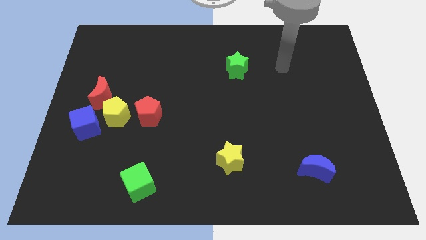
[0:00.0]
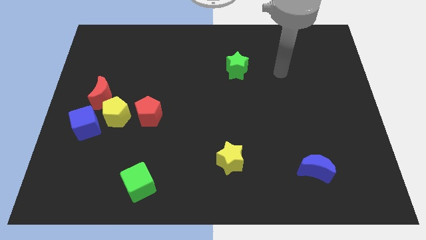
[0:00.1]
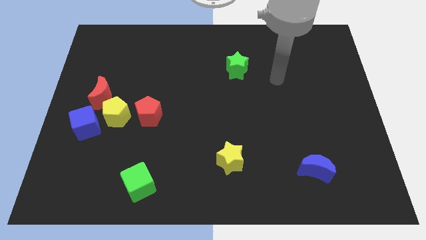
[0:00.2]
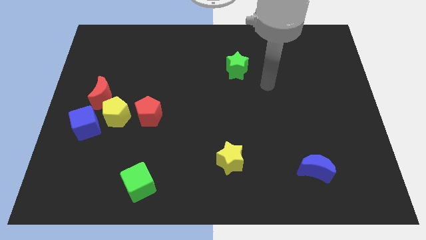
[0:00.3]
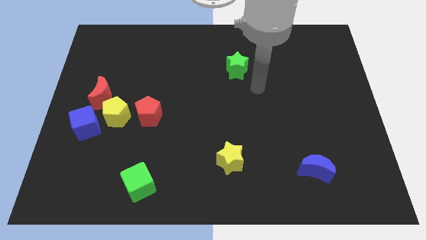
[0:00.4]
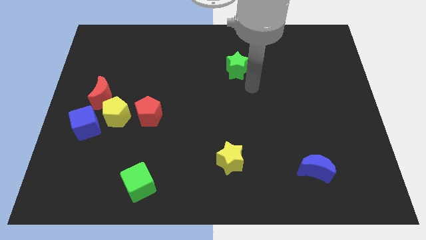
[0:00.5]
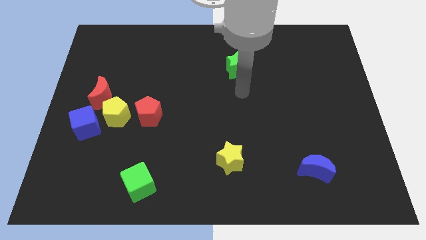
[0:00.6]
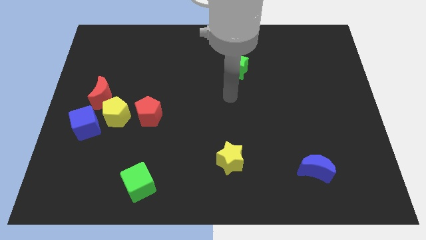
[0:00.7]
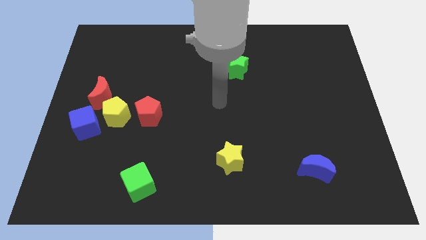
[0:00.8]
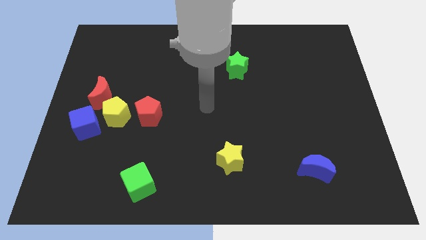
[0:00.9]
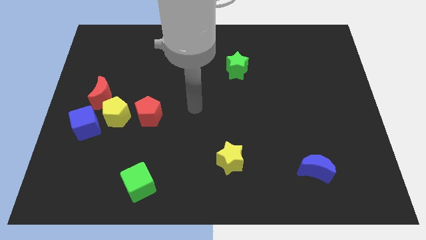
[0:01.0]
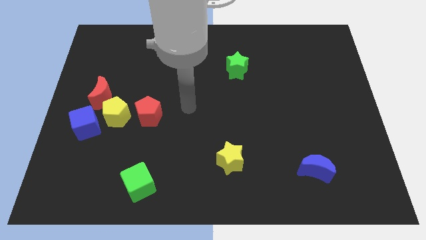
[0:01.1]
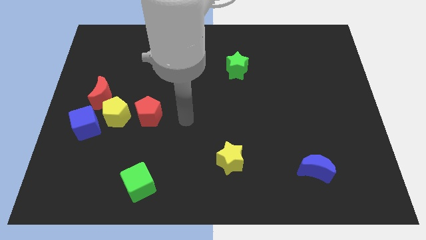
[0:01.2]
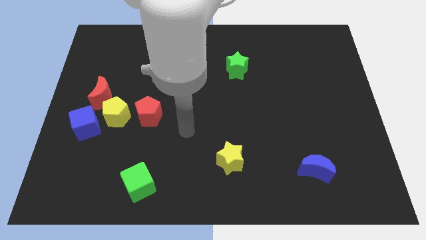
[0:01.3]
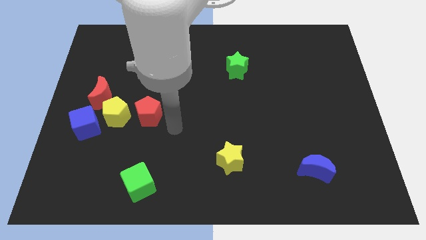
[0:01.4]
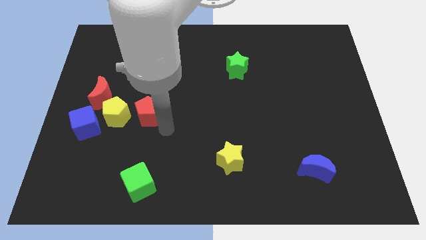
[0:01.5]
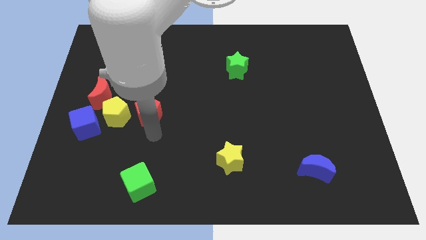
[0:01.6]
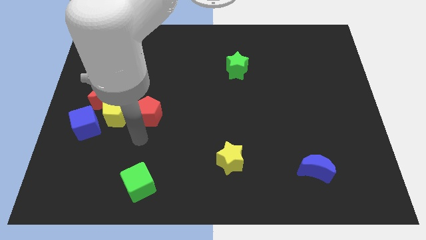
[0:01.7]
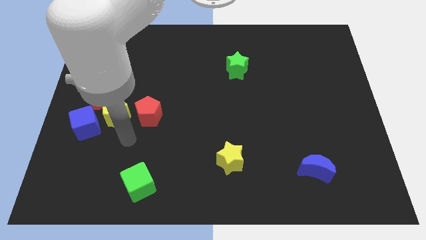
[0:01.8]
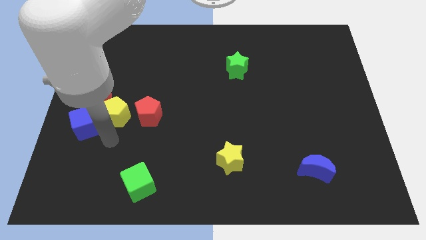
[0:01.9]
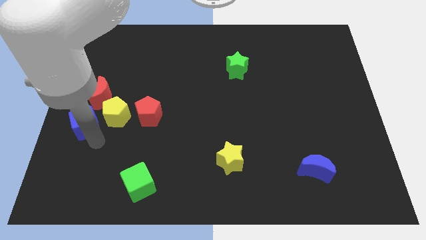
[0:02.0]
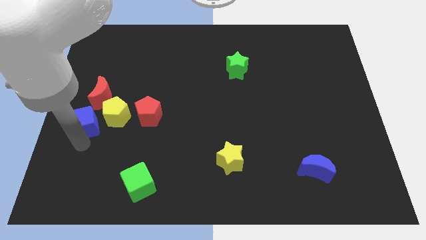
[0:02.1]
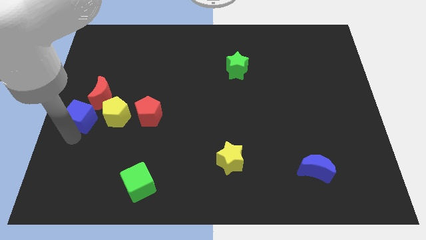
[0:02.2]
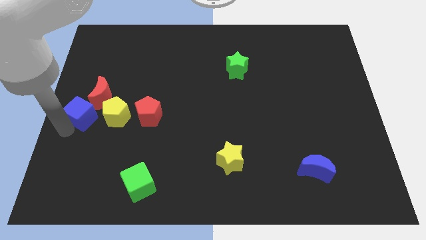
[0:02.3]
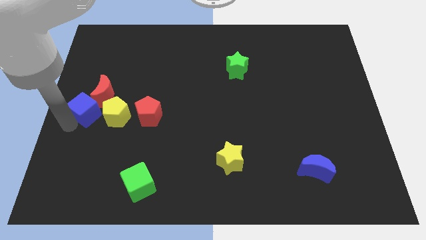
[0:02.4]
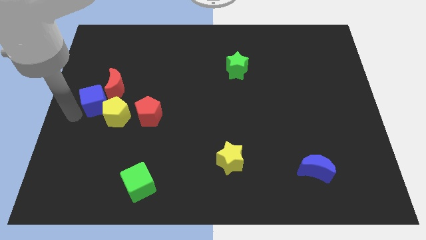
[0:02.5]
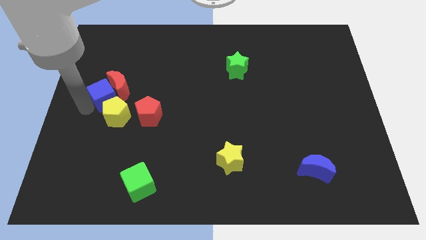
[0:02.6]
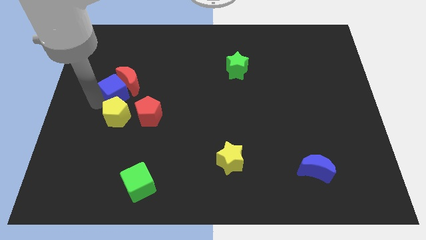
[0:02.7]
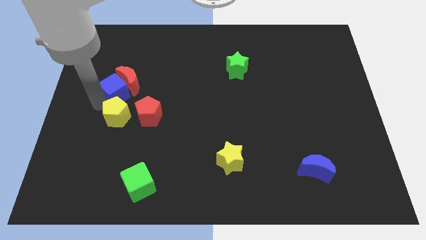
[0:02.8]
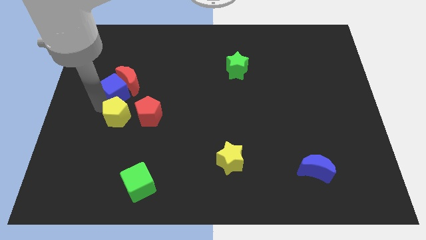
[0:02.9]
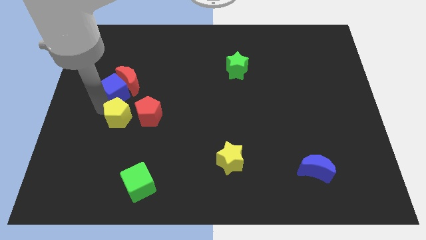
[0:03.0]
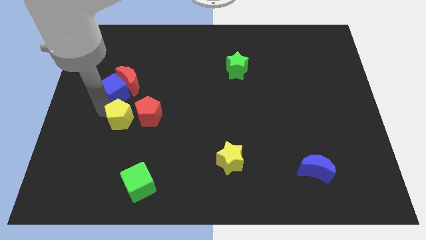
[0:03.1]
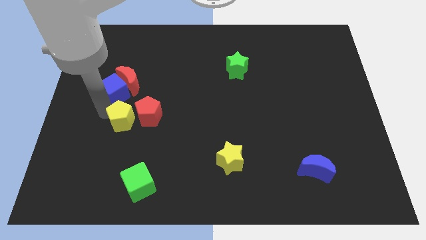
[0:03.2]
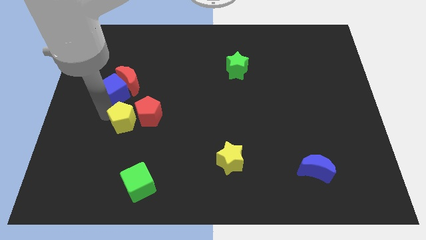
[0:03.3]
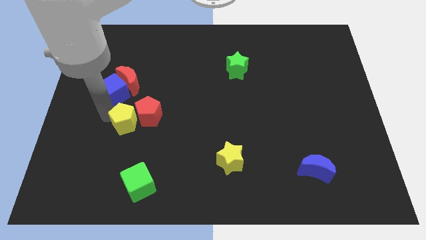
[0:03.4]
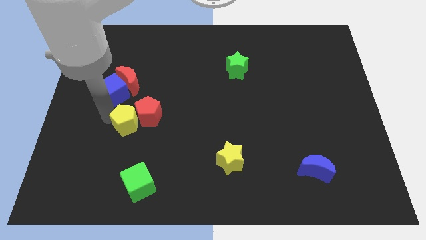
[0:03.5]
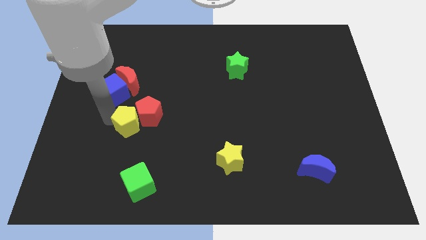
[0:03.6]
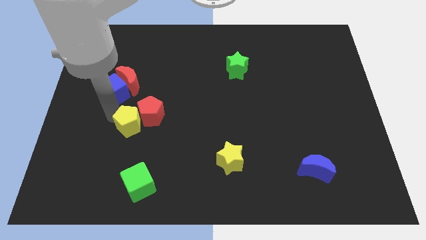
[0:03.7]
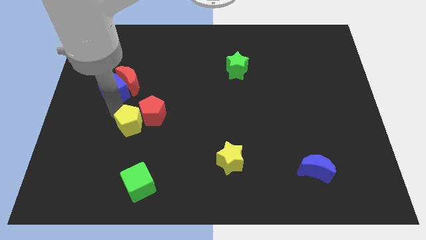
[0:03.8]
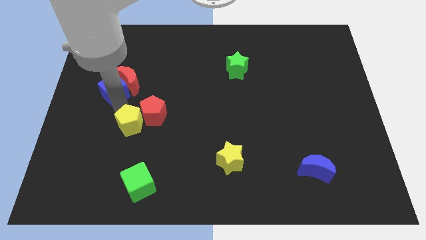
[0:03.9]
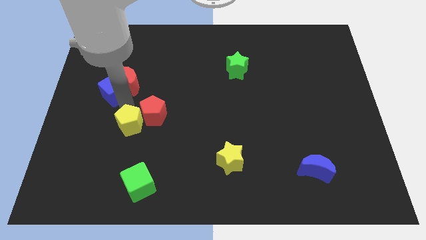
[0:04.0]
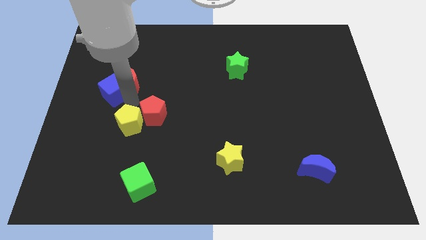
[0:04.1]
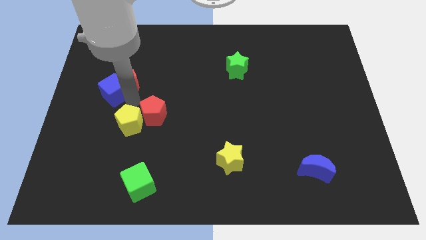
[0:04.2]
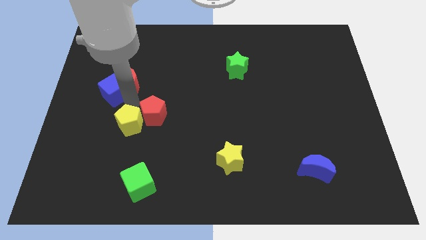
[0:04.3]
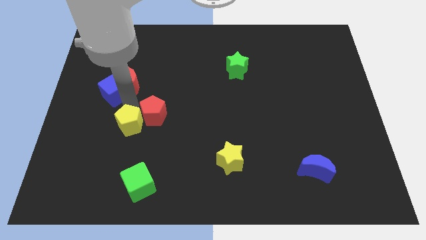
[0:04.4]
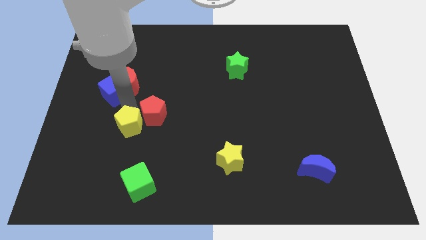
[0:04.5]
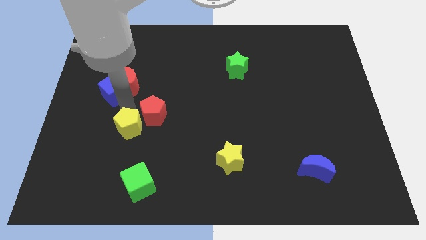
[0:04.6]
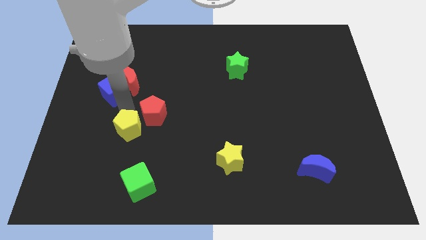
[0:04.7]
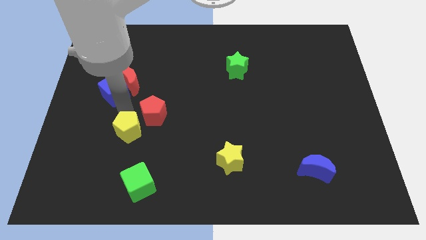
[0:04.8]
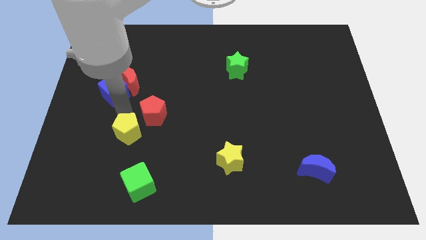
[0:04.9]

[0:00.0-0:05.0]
move the yellow pentagon away from the clump

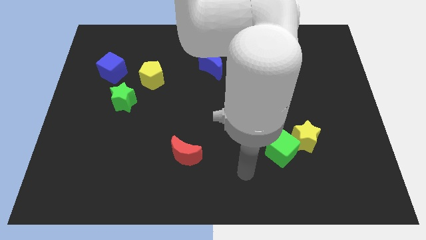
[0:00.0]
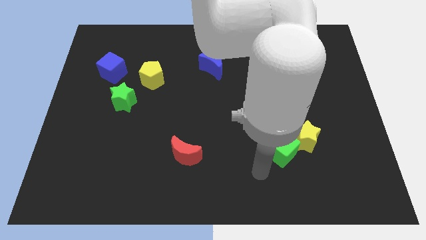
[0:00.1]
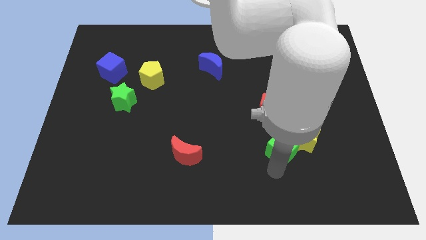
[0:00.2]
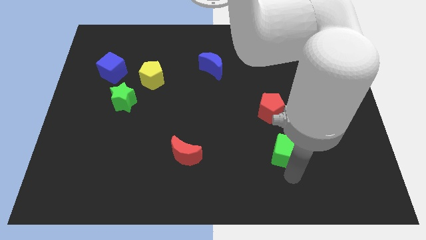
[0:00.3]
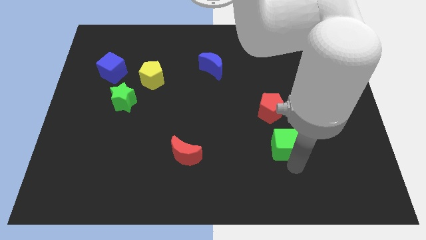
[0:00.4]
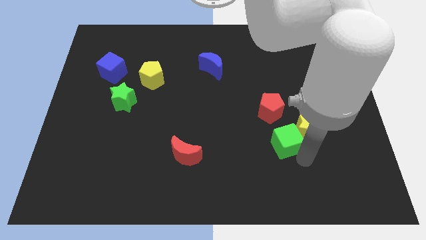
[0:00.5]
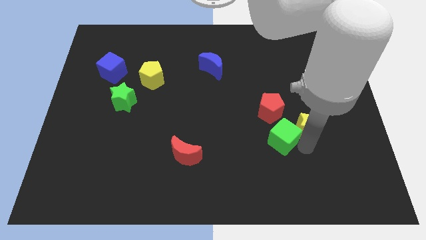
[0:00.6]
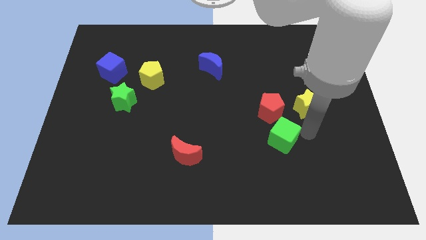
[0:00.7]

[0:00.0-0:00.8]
pull the green cube apart from the yellow star

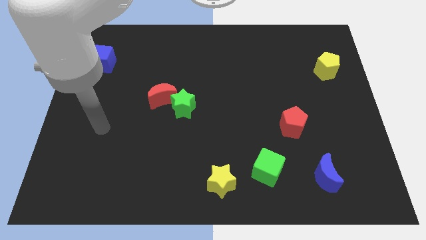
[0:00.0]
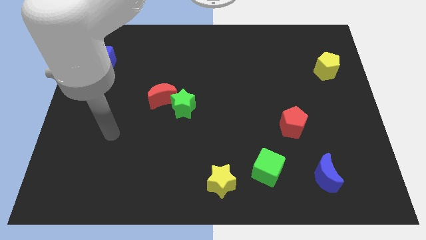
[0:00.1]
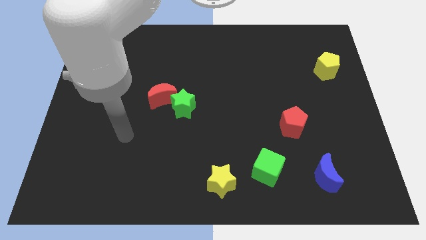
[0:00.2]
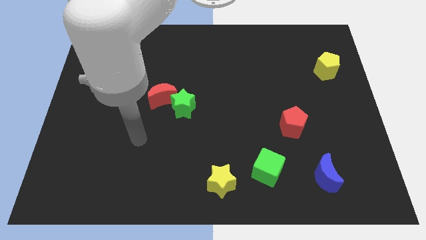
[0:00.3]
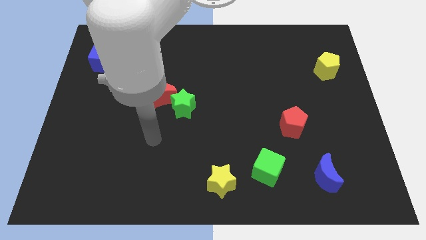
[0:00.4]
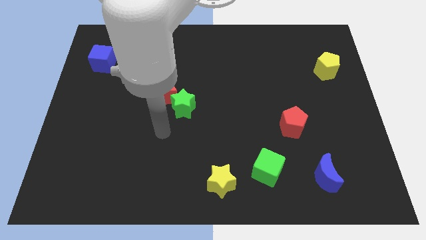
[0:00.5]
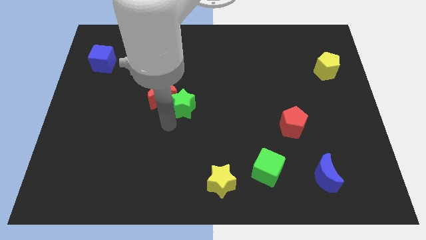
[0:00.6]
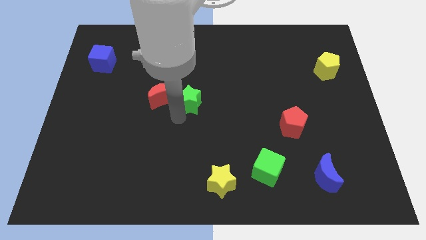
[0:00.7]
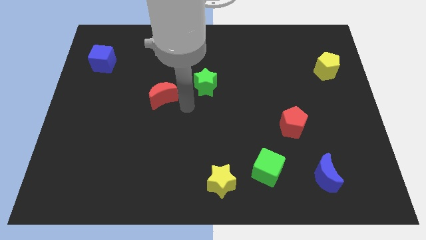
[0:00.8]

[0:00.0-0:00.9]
move the red moon away from the green star

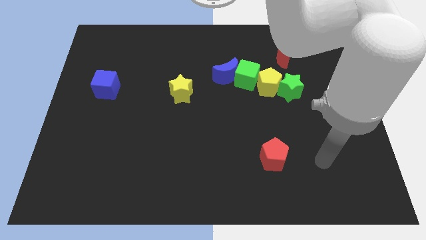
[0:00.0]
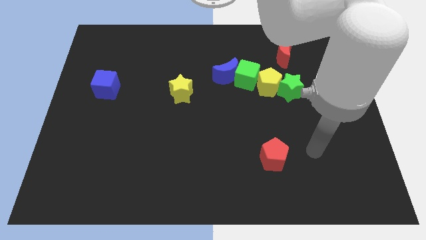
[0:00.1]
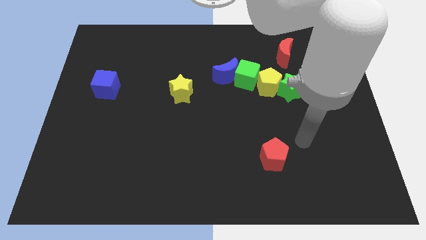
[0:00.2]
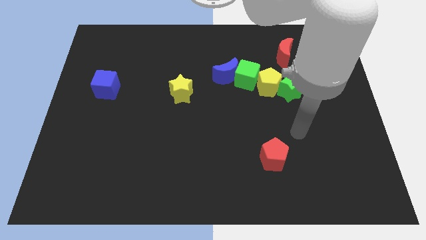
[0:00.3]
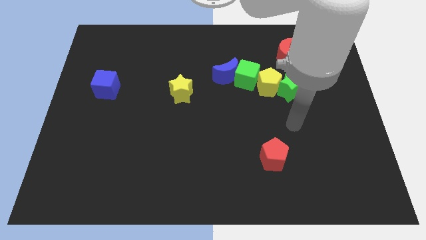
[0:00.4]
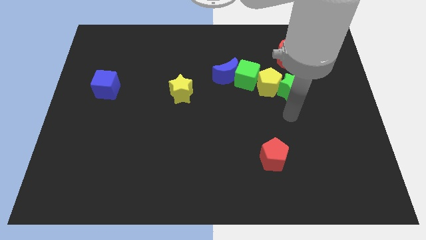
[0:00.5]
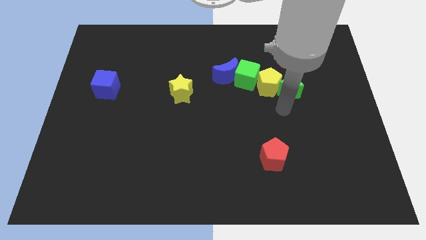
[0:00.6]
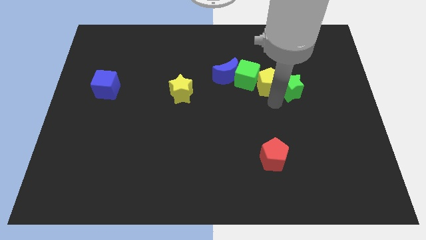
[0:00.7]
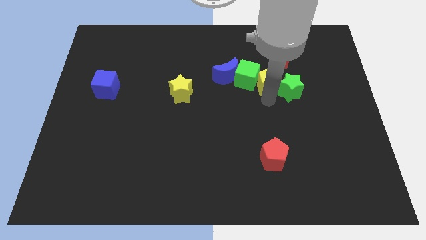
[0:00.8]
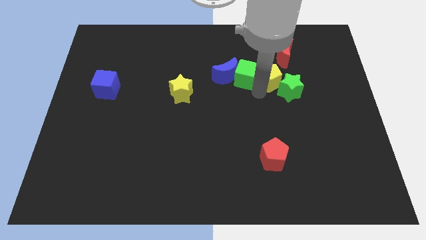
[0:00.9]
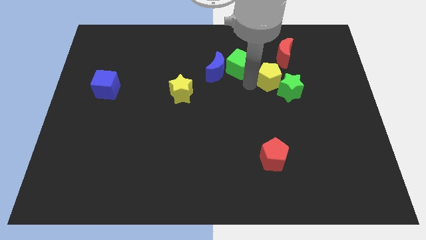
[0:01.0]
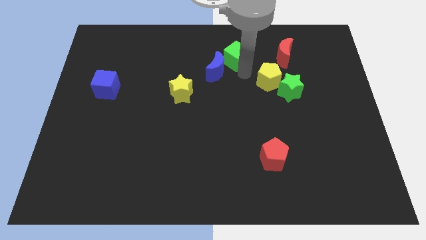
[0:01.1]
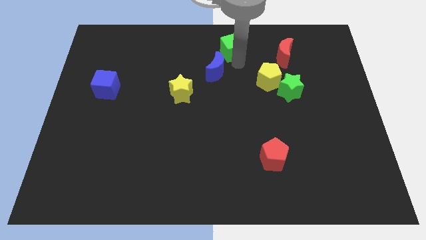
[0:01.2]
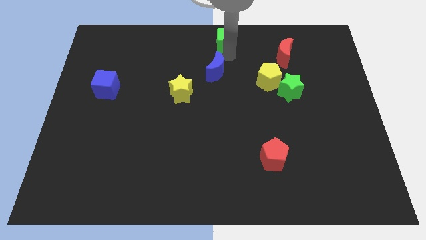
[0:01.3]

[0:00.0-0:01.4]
separate the blue moon from the green cube

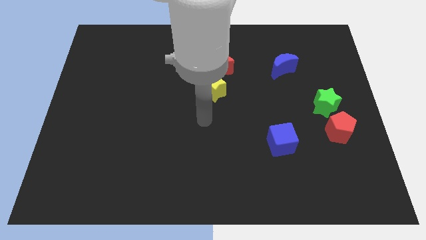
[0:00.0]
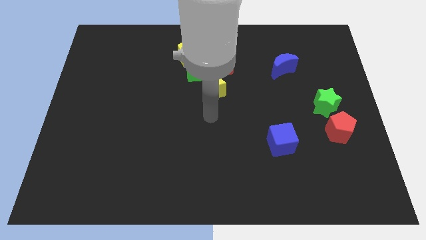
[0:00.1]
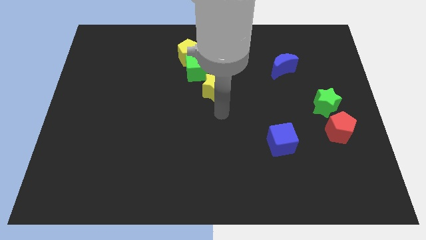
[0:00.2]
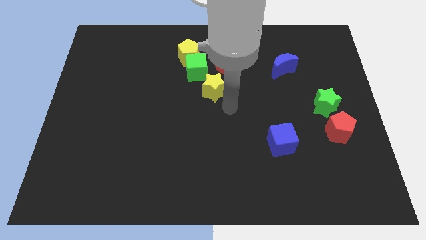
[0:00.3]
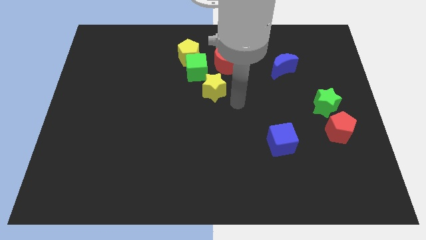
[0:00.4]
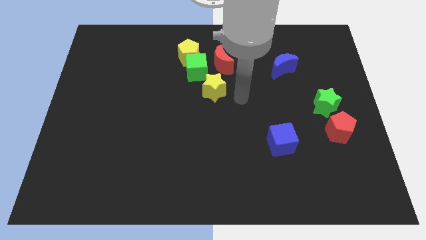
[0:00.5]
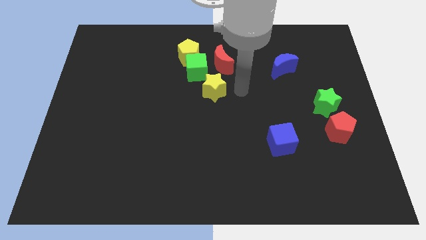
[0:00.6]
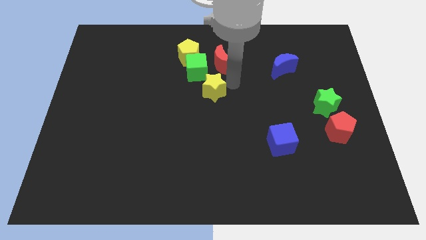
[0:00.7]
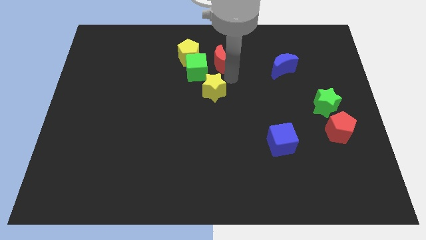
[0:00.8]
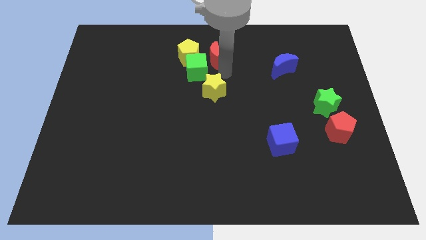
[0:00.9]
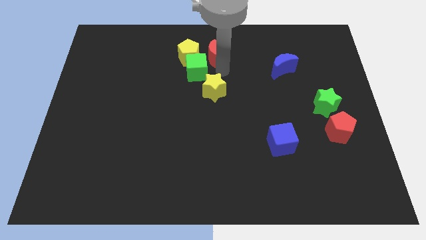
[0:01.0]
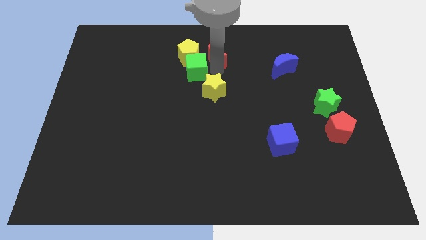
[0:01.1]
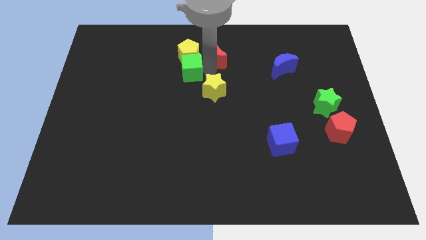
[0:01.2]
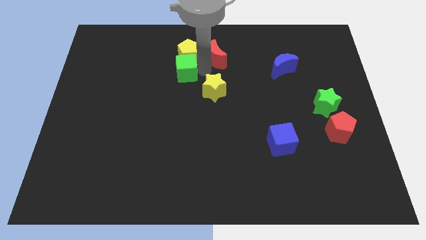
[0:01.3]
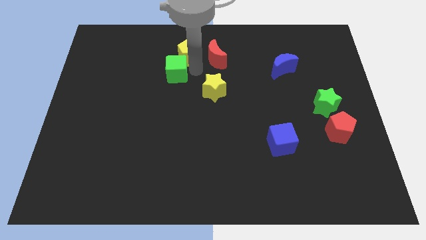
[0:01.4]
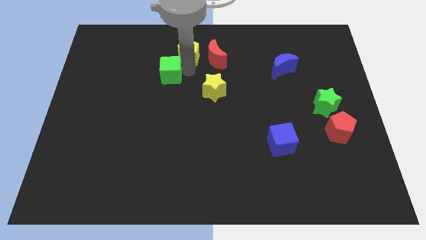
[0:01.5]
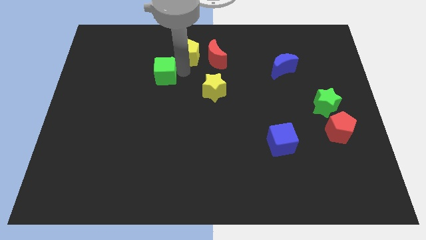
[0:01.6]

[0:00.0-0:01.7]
separate the green cube from the yellow pentagon, red moon, and yellow star
